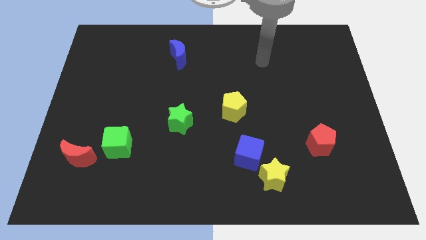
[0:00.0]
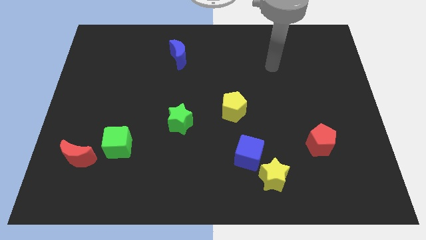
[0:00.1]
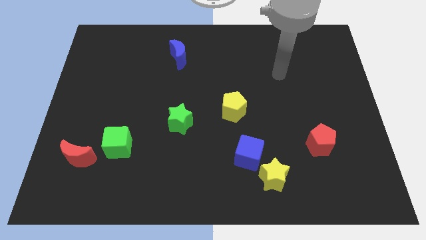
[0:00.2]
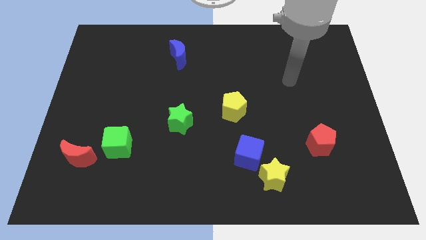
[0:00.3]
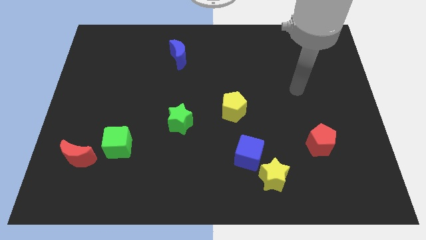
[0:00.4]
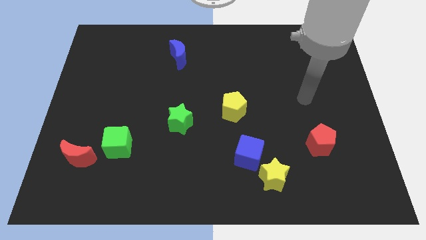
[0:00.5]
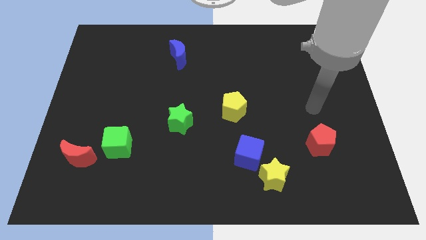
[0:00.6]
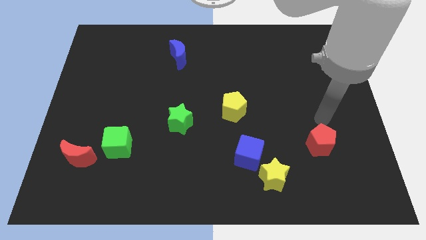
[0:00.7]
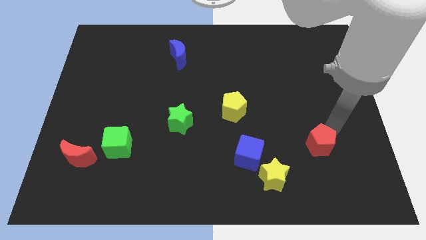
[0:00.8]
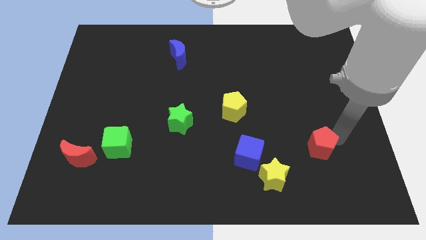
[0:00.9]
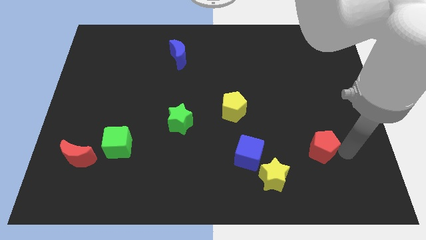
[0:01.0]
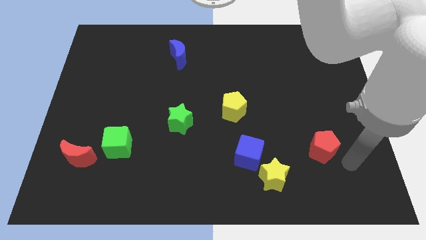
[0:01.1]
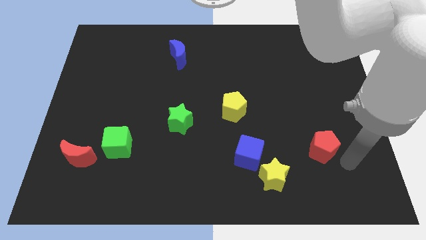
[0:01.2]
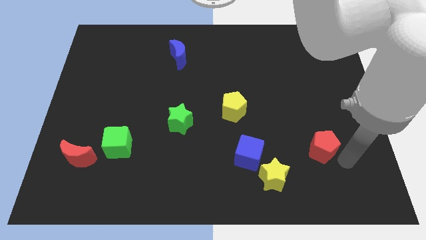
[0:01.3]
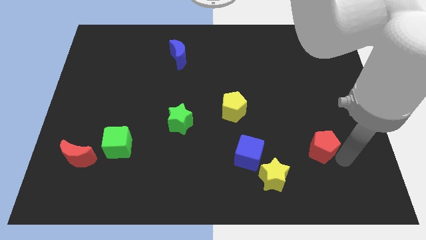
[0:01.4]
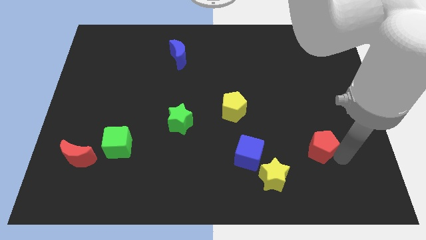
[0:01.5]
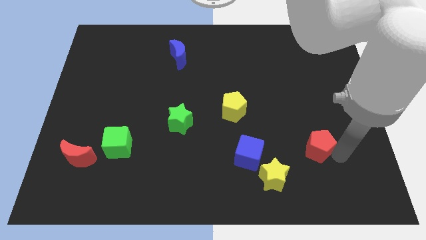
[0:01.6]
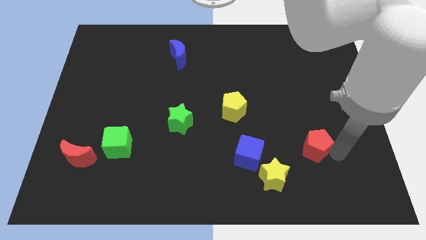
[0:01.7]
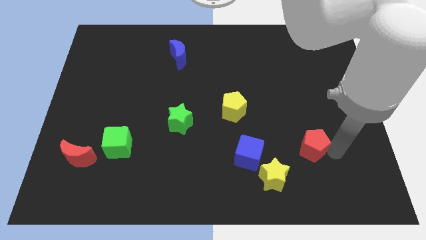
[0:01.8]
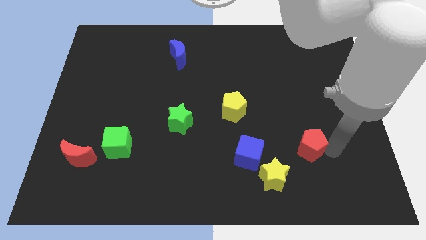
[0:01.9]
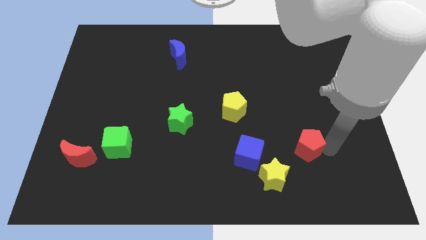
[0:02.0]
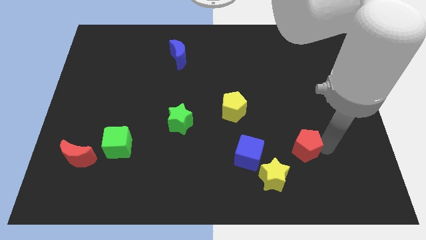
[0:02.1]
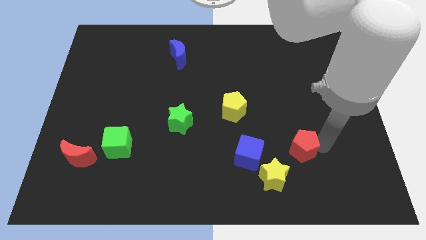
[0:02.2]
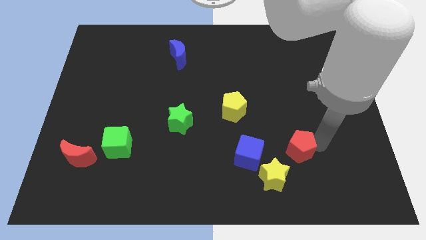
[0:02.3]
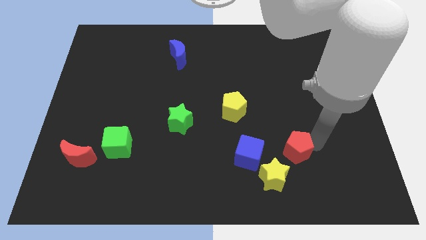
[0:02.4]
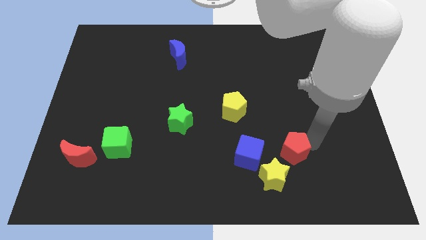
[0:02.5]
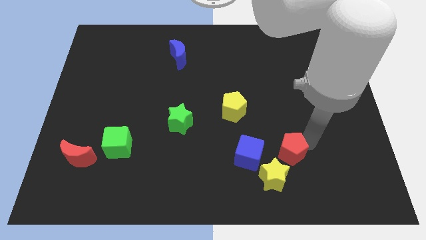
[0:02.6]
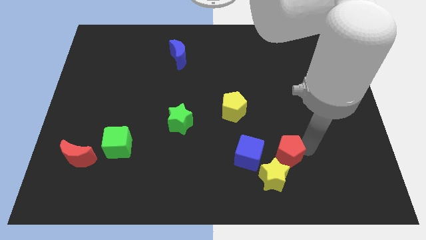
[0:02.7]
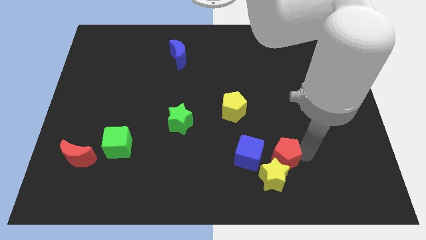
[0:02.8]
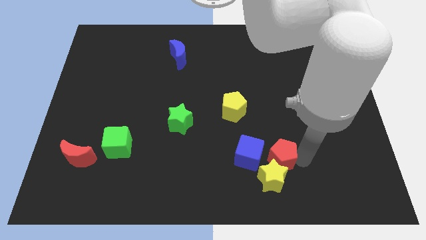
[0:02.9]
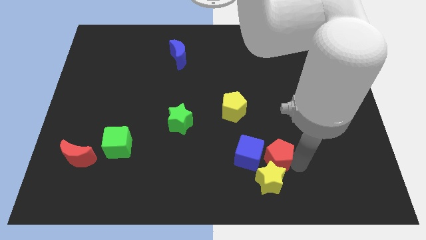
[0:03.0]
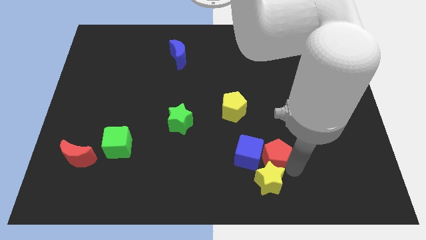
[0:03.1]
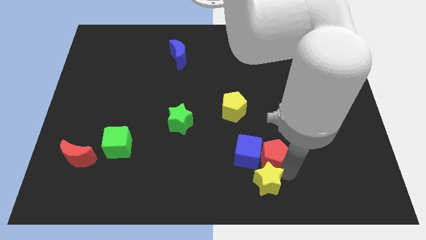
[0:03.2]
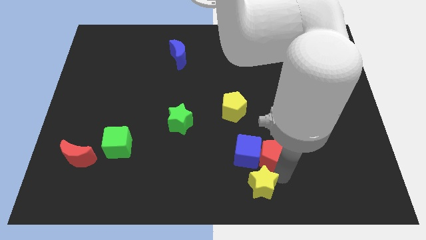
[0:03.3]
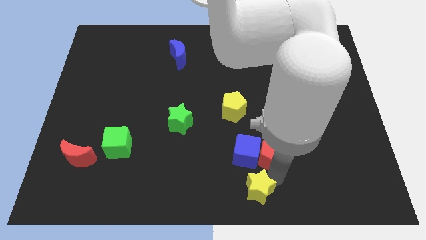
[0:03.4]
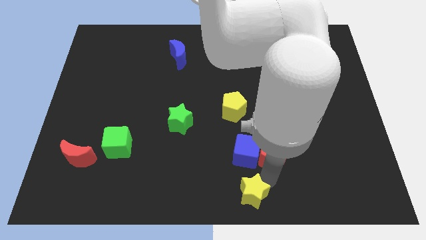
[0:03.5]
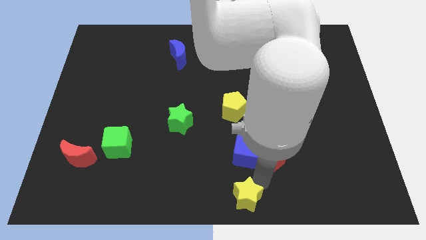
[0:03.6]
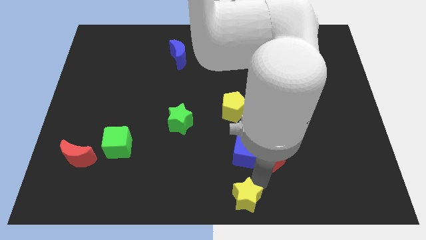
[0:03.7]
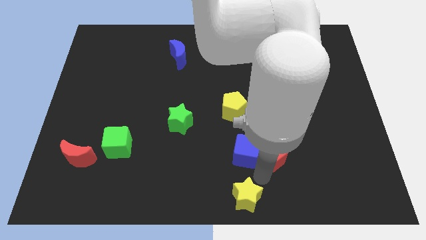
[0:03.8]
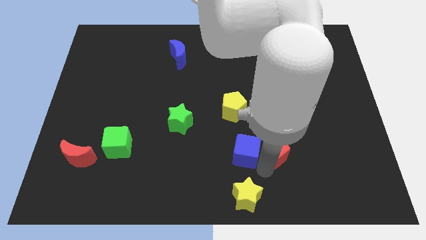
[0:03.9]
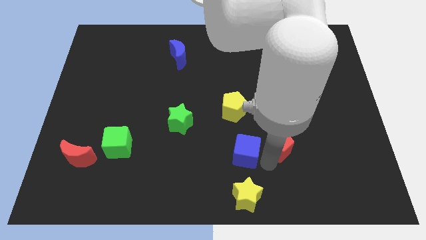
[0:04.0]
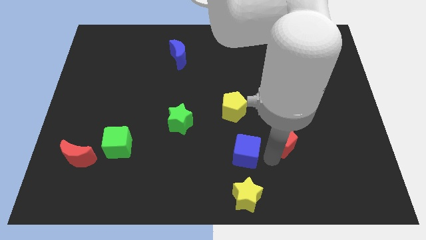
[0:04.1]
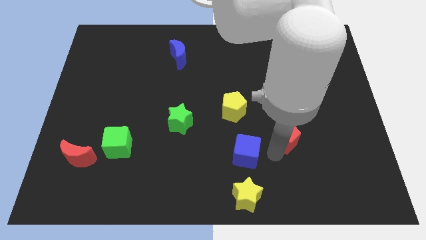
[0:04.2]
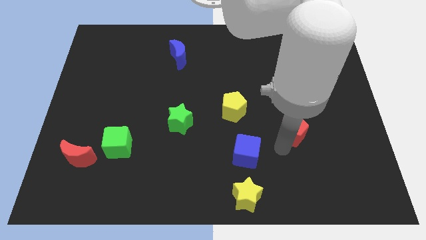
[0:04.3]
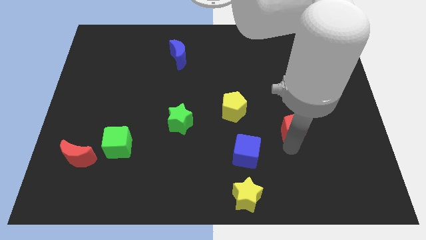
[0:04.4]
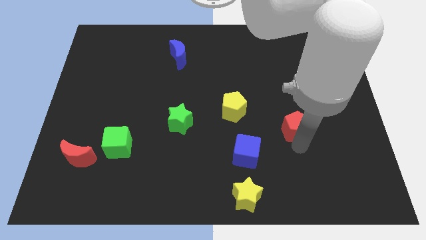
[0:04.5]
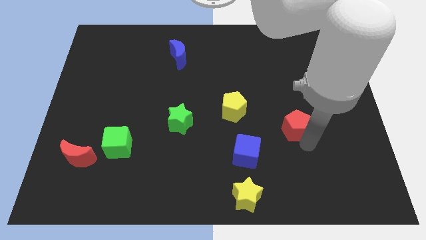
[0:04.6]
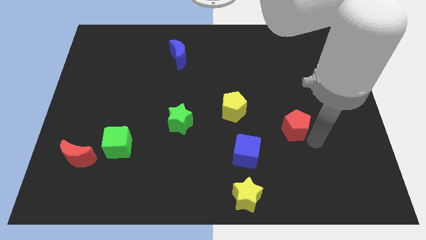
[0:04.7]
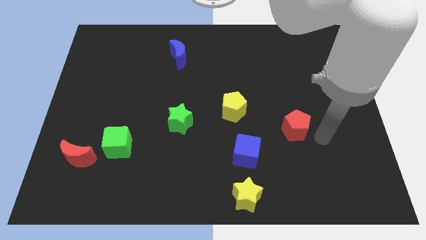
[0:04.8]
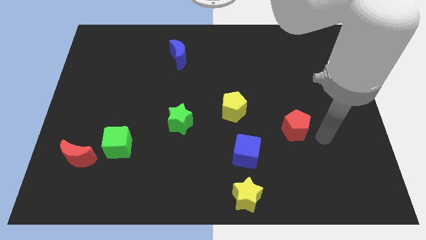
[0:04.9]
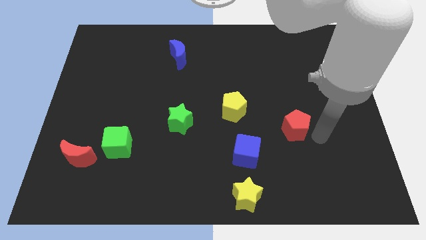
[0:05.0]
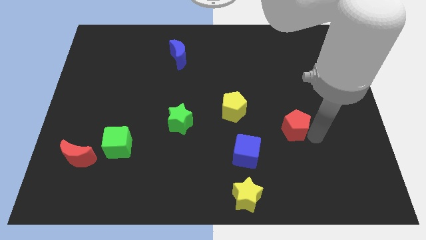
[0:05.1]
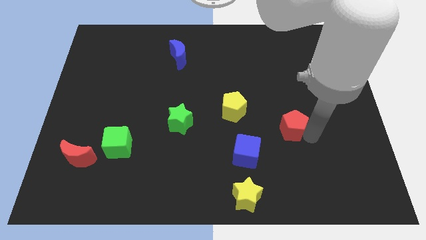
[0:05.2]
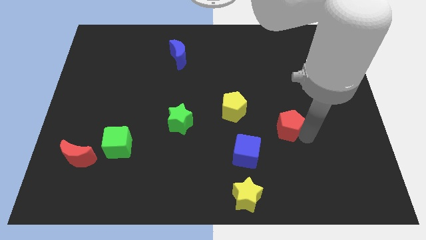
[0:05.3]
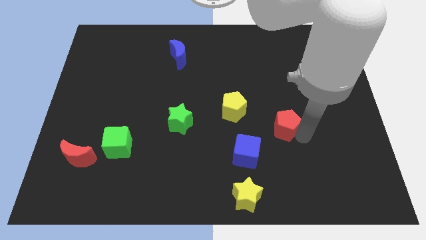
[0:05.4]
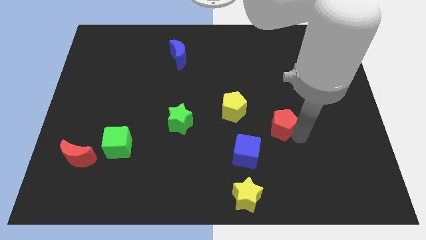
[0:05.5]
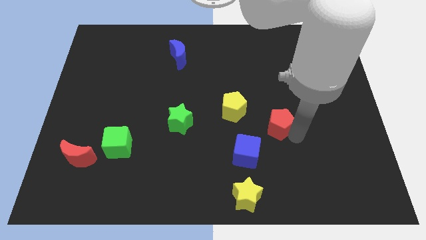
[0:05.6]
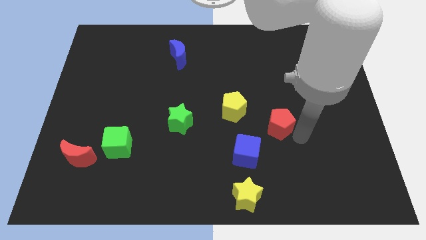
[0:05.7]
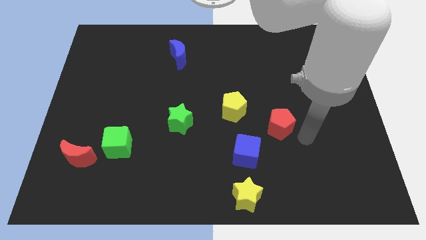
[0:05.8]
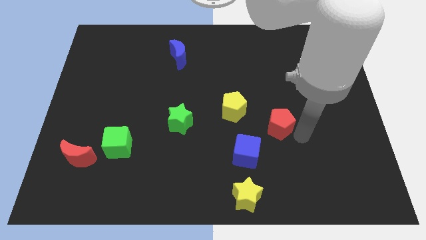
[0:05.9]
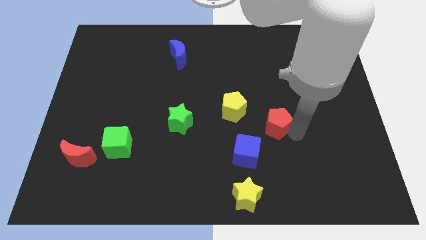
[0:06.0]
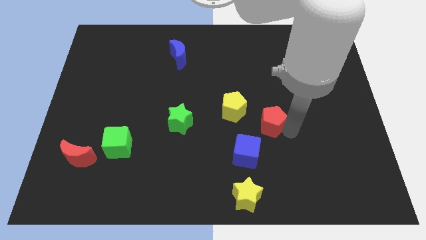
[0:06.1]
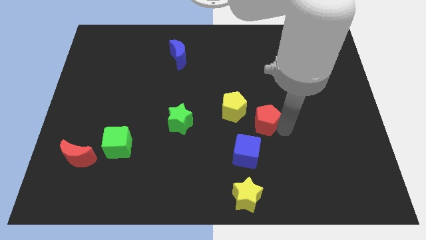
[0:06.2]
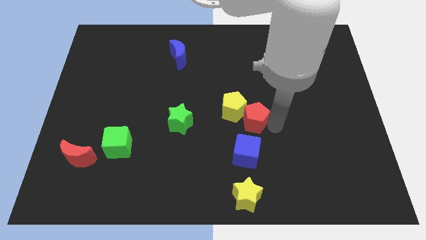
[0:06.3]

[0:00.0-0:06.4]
slide the red pentagon close to the yellow pentagon

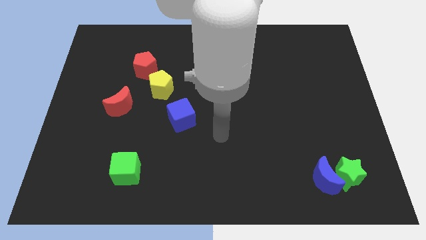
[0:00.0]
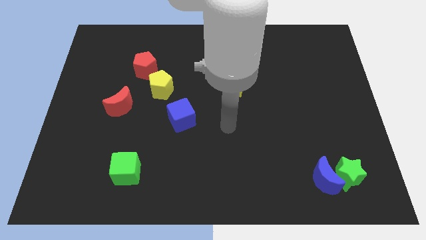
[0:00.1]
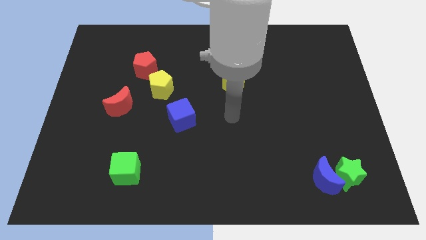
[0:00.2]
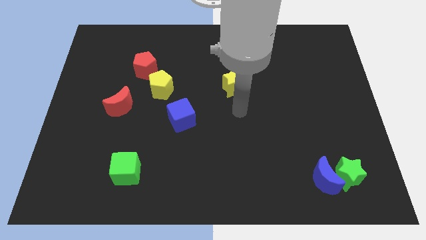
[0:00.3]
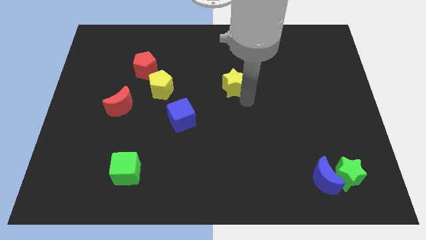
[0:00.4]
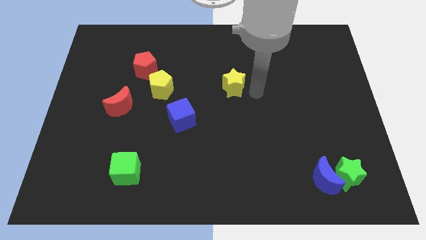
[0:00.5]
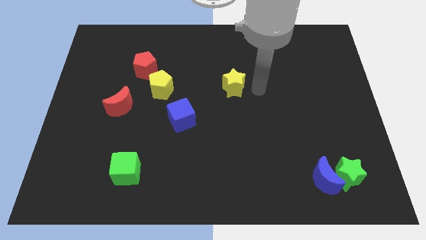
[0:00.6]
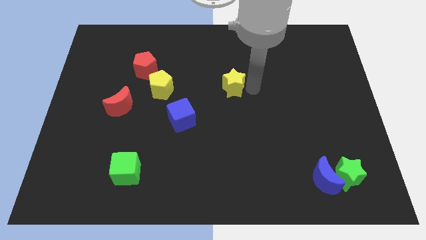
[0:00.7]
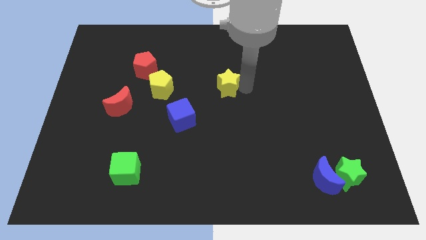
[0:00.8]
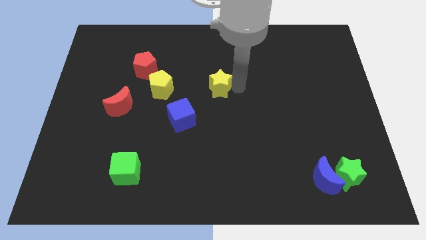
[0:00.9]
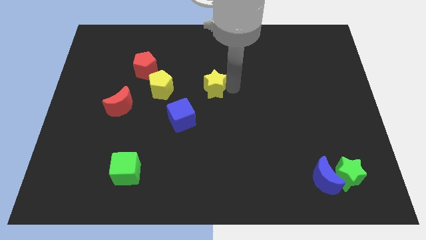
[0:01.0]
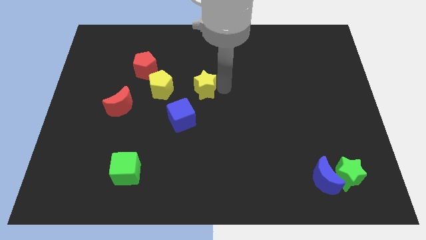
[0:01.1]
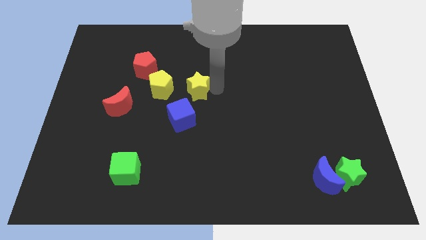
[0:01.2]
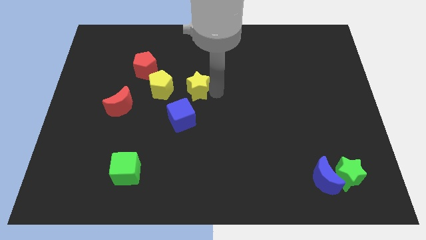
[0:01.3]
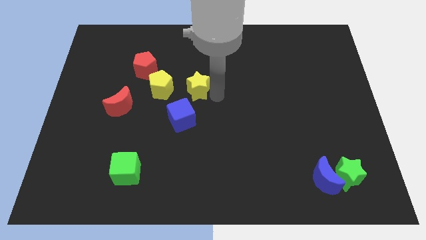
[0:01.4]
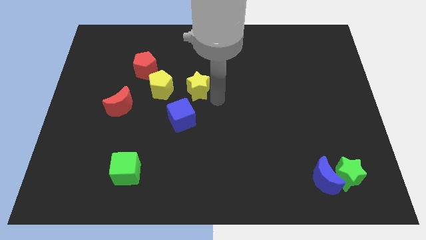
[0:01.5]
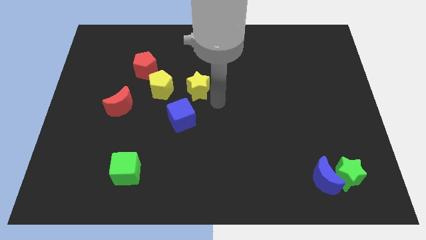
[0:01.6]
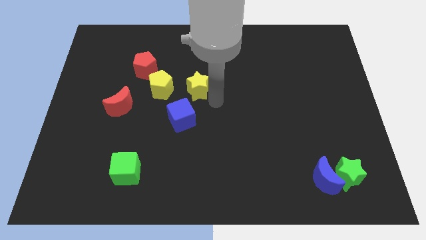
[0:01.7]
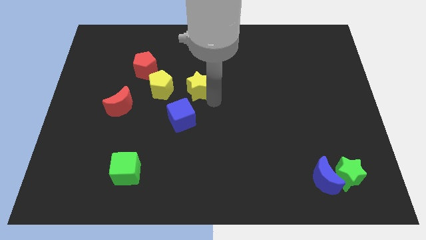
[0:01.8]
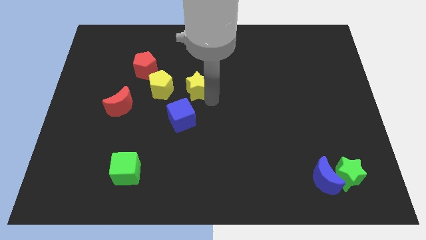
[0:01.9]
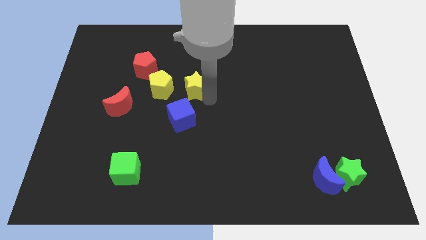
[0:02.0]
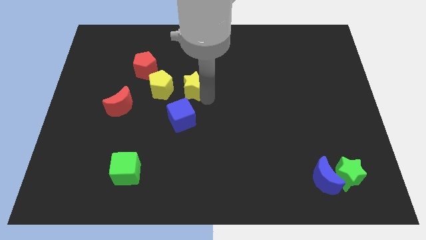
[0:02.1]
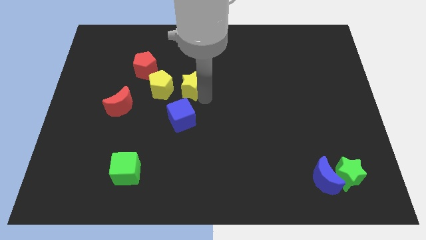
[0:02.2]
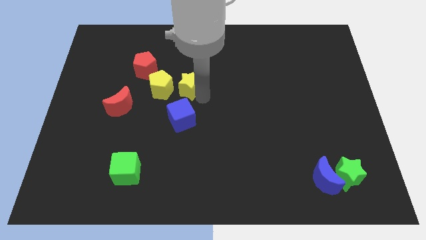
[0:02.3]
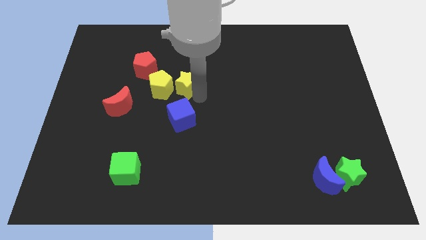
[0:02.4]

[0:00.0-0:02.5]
move the yellow star towards the yellow pentagon
